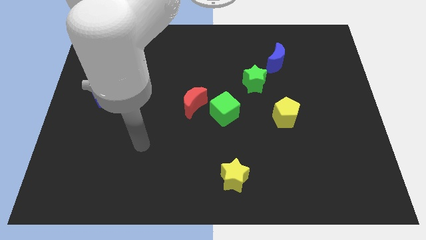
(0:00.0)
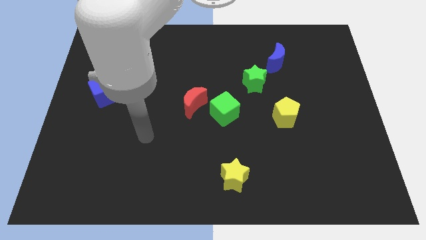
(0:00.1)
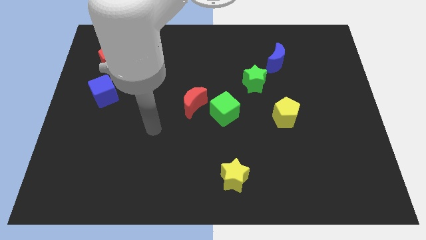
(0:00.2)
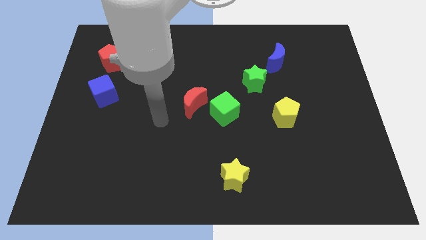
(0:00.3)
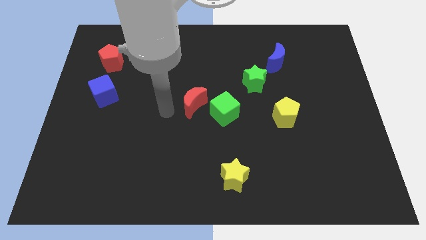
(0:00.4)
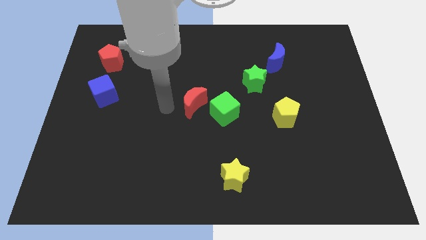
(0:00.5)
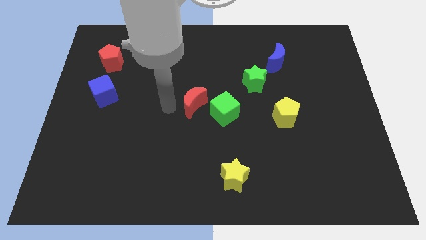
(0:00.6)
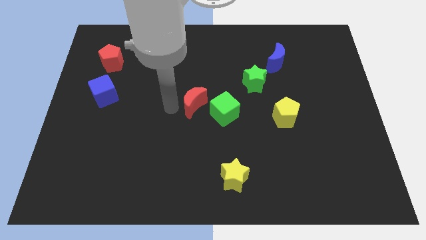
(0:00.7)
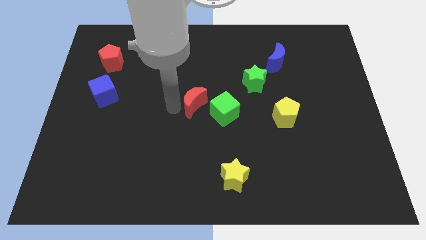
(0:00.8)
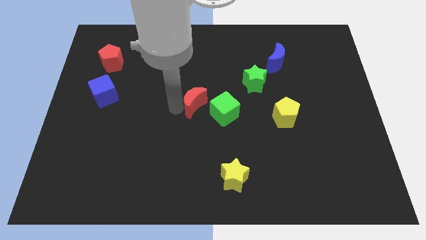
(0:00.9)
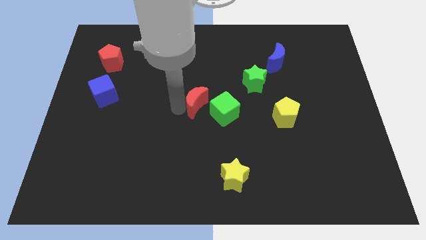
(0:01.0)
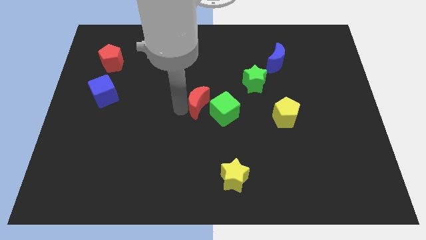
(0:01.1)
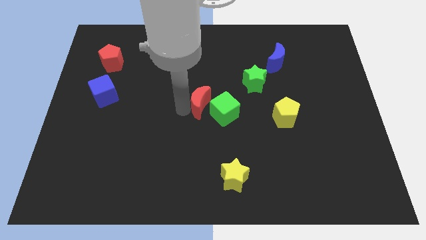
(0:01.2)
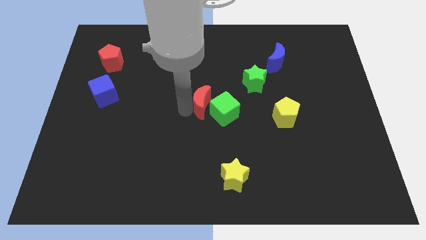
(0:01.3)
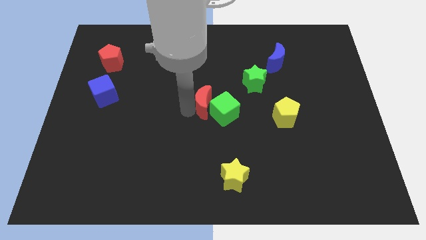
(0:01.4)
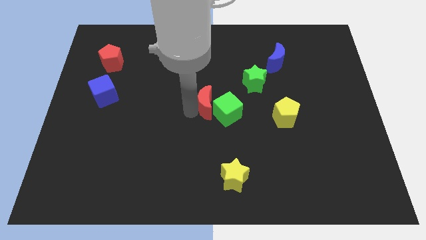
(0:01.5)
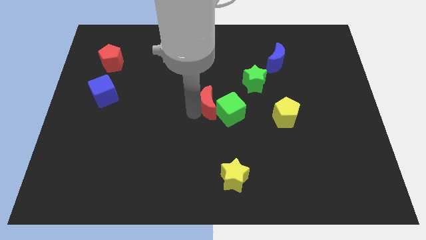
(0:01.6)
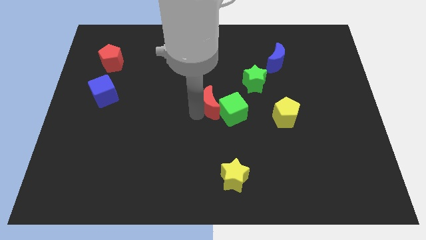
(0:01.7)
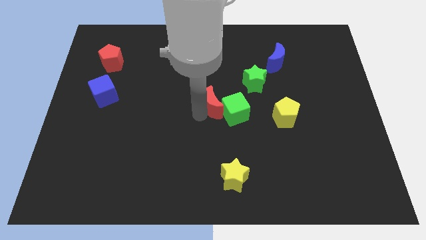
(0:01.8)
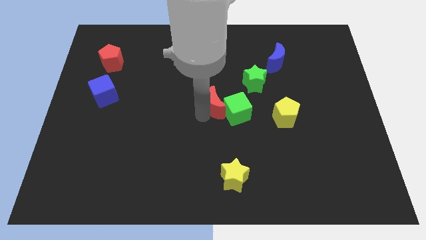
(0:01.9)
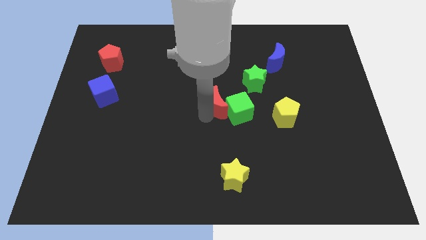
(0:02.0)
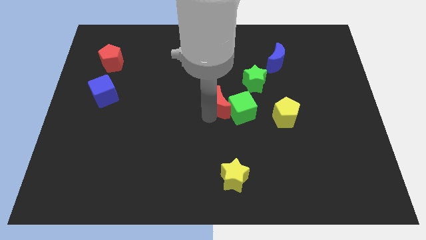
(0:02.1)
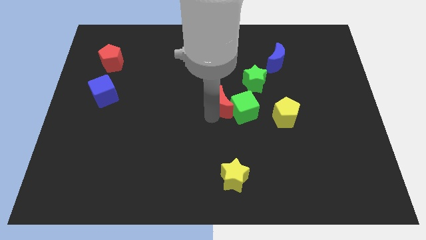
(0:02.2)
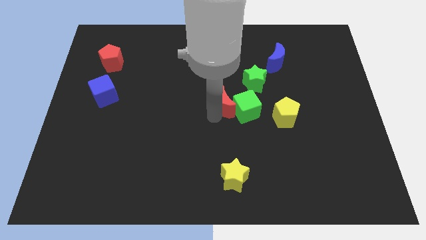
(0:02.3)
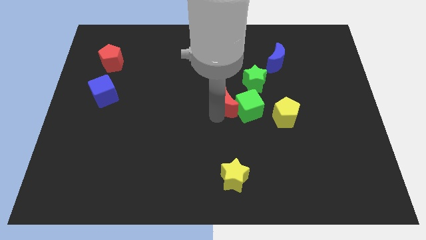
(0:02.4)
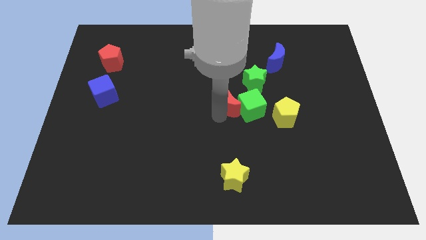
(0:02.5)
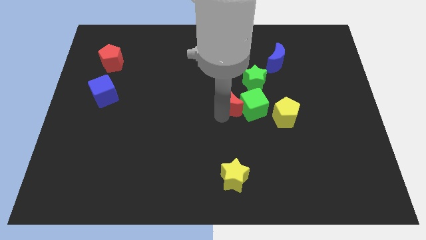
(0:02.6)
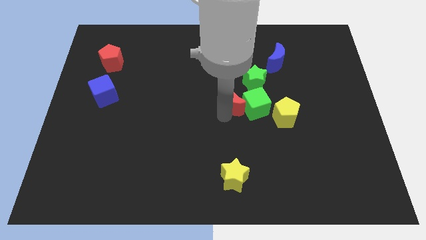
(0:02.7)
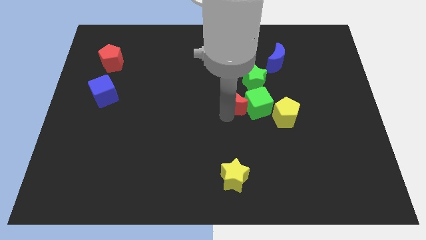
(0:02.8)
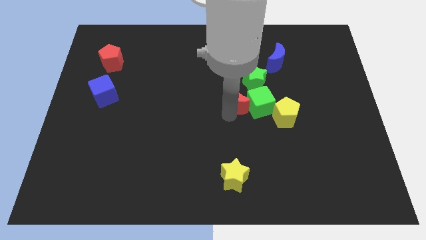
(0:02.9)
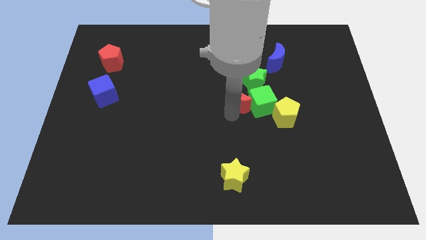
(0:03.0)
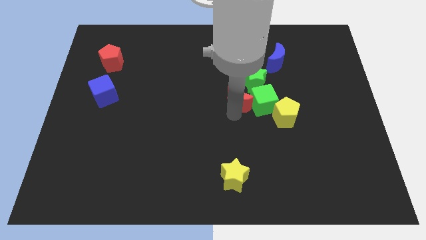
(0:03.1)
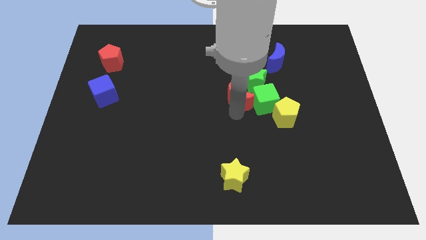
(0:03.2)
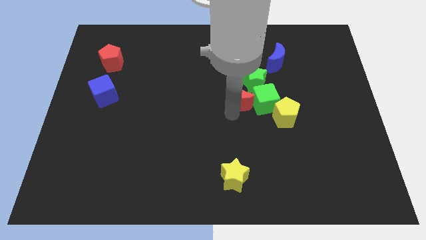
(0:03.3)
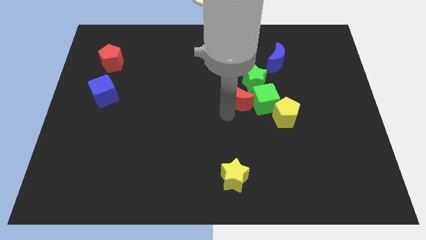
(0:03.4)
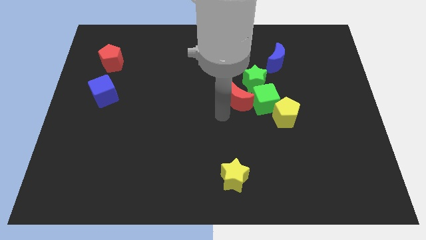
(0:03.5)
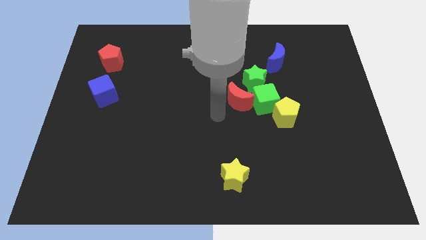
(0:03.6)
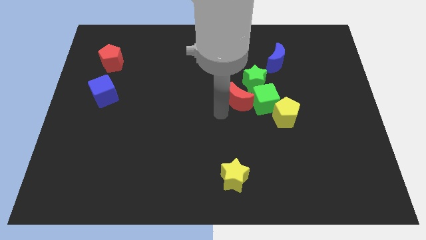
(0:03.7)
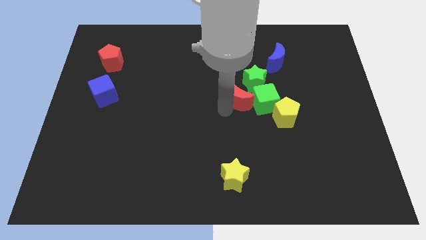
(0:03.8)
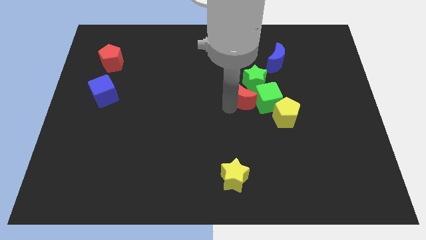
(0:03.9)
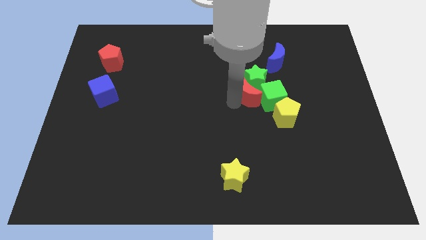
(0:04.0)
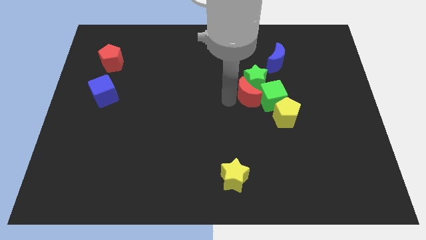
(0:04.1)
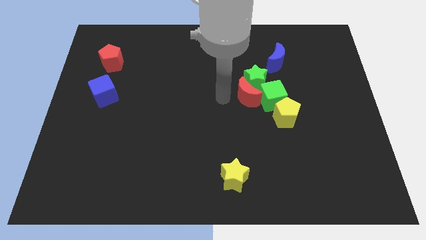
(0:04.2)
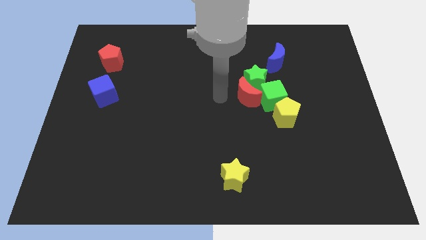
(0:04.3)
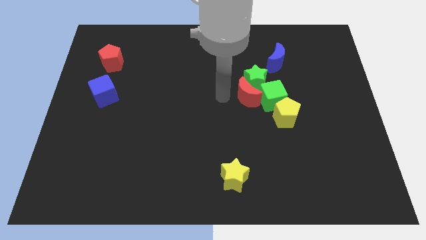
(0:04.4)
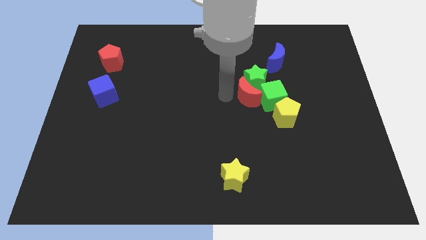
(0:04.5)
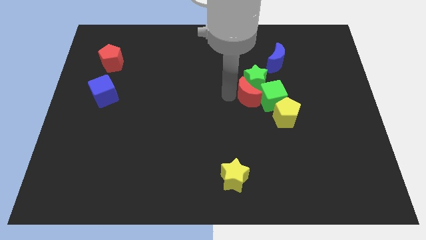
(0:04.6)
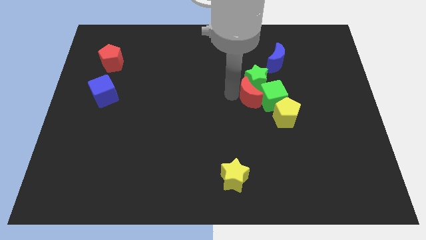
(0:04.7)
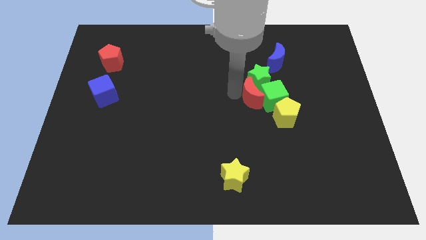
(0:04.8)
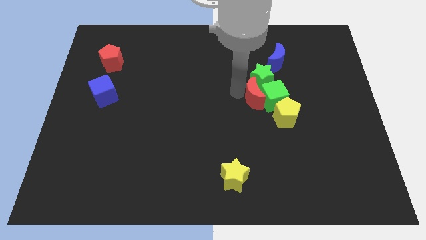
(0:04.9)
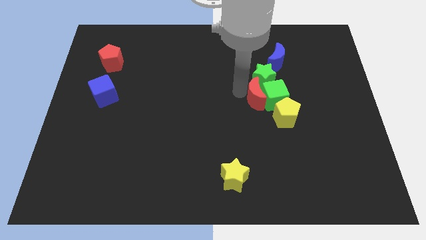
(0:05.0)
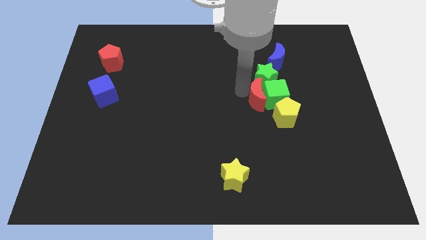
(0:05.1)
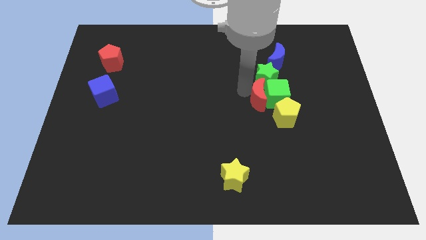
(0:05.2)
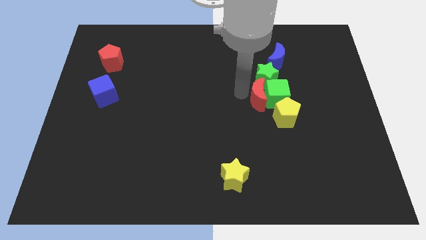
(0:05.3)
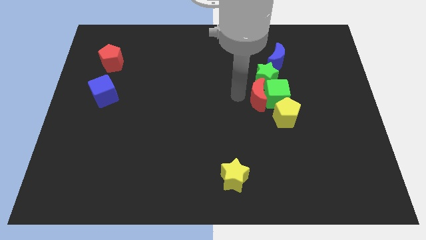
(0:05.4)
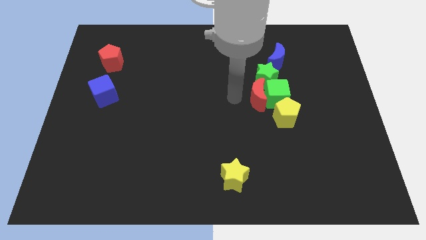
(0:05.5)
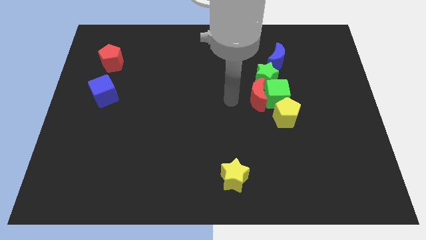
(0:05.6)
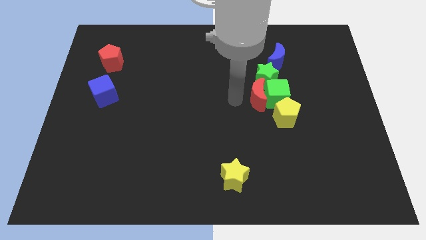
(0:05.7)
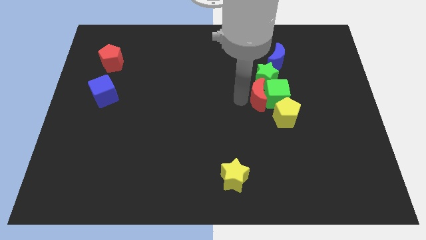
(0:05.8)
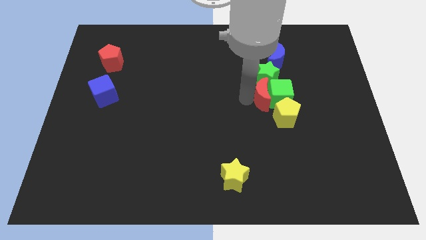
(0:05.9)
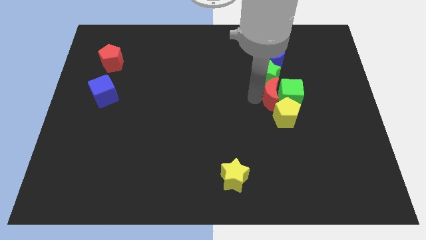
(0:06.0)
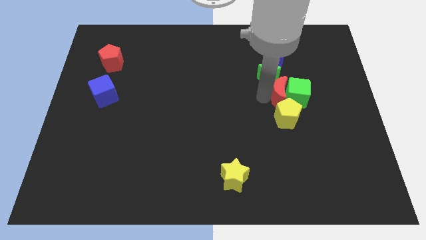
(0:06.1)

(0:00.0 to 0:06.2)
slide the red moon to the right

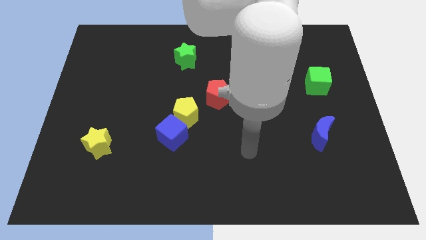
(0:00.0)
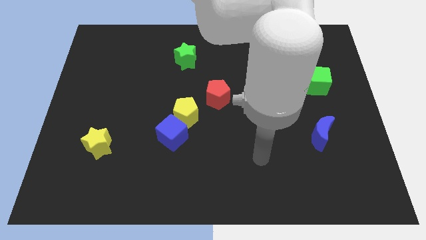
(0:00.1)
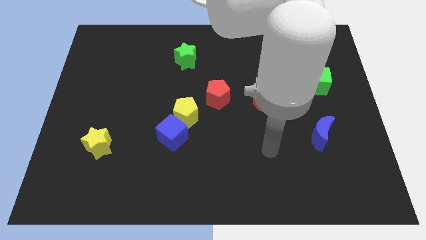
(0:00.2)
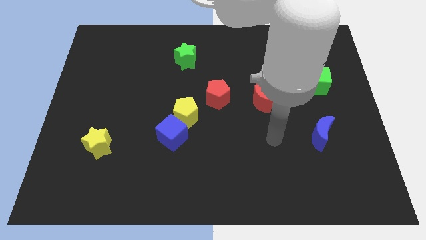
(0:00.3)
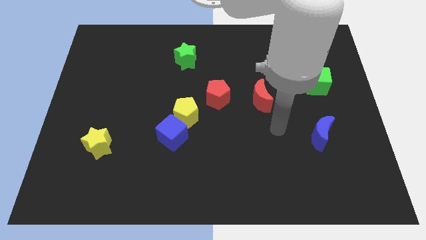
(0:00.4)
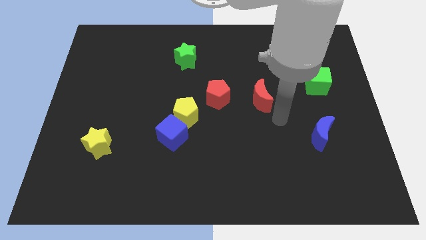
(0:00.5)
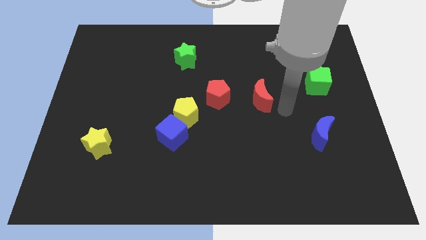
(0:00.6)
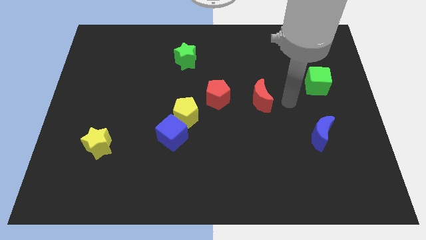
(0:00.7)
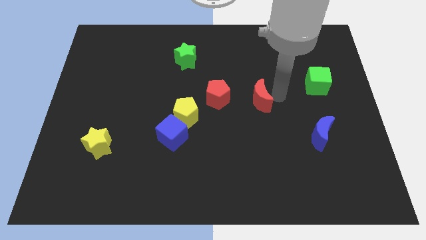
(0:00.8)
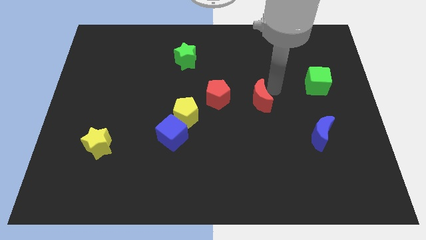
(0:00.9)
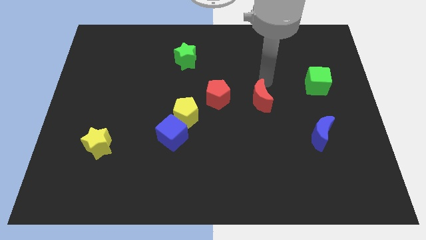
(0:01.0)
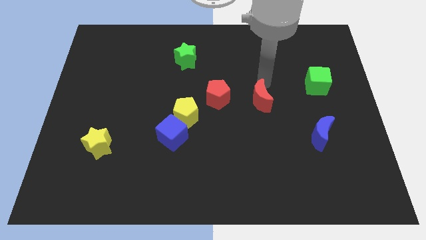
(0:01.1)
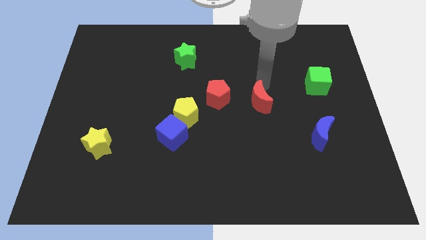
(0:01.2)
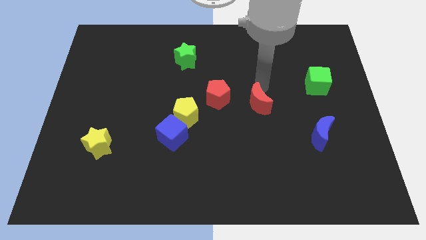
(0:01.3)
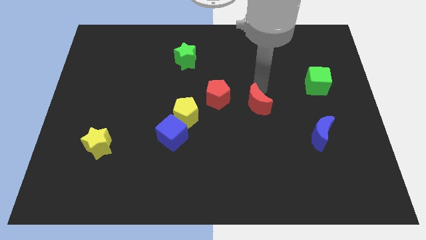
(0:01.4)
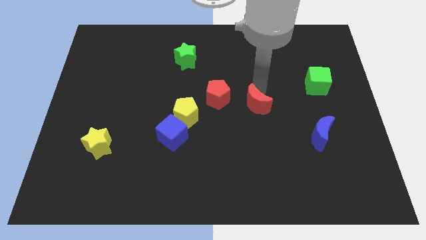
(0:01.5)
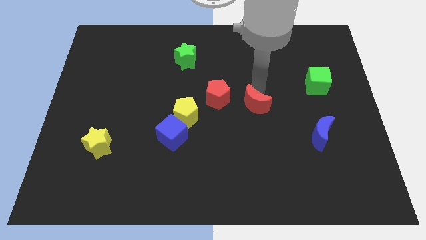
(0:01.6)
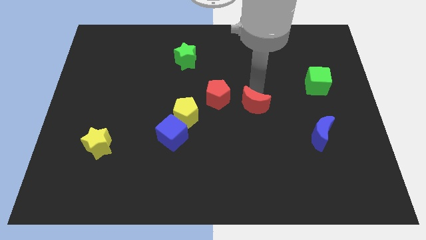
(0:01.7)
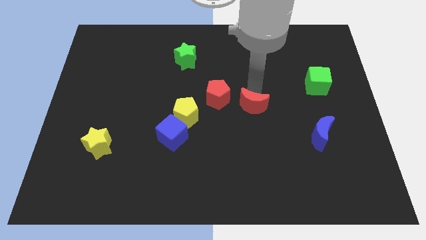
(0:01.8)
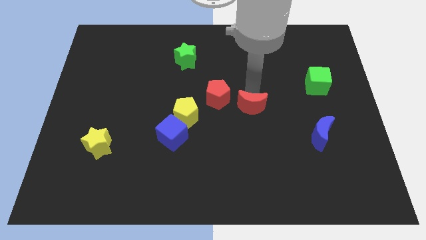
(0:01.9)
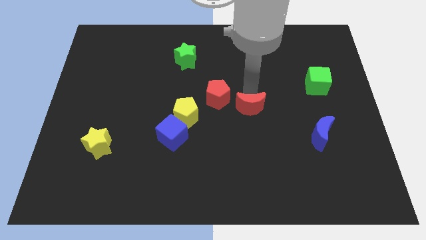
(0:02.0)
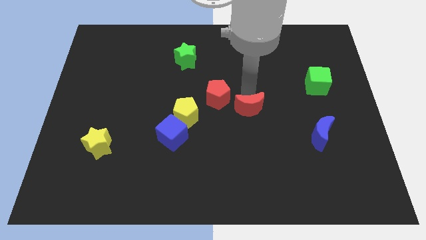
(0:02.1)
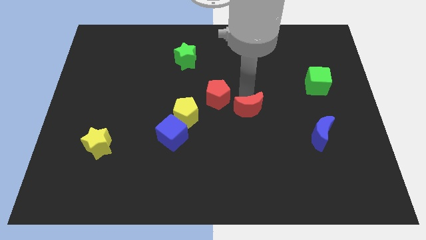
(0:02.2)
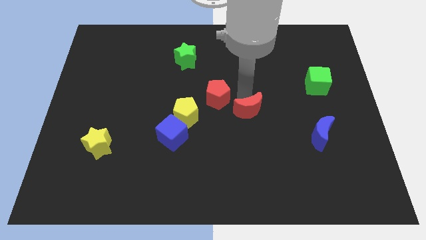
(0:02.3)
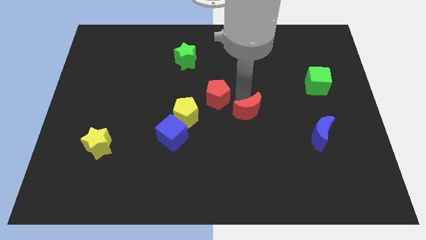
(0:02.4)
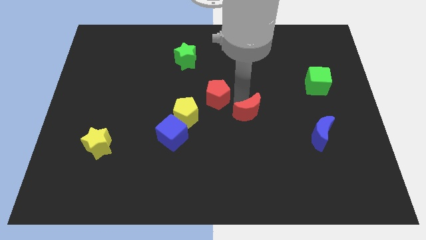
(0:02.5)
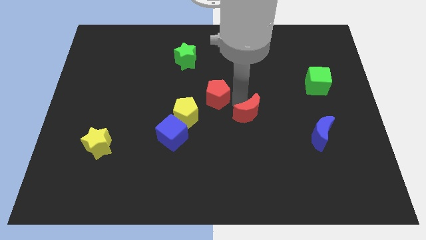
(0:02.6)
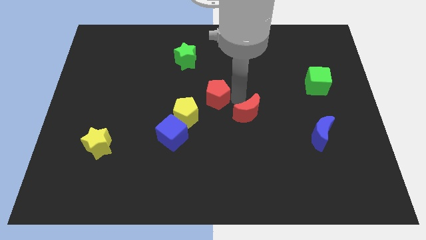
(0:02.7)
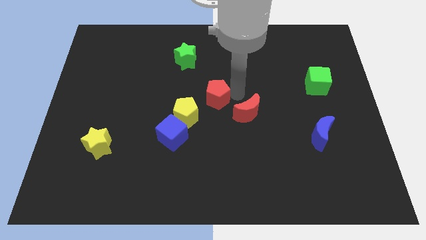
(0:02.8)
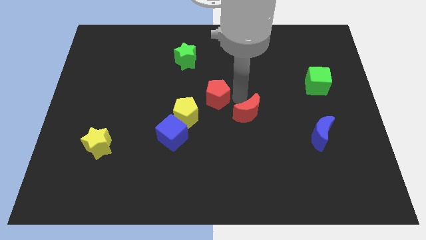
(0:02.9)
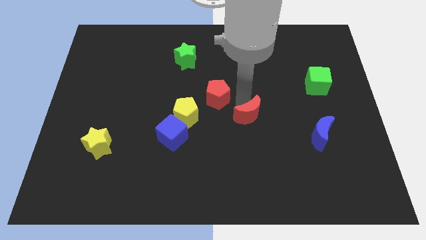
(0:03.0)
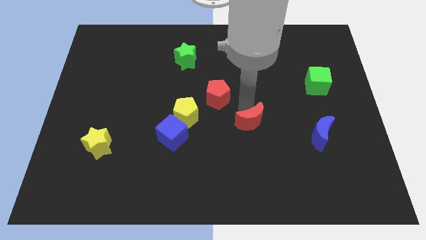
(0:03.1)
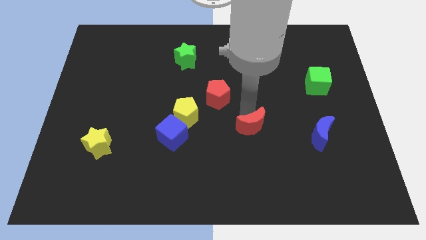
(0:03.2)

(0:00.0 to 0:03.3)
move the red moon somewhat down
